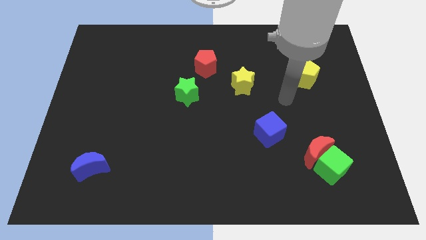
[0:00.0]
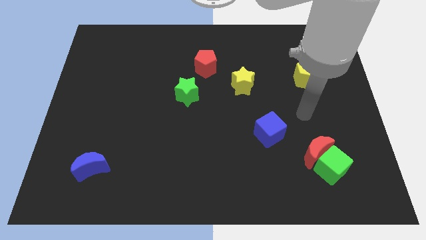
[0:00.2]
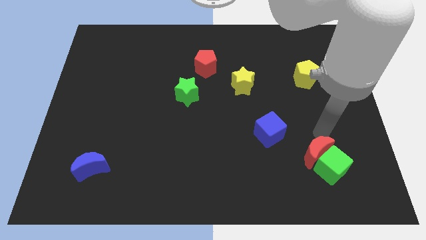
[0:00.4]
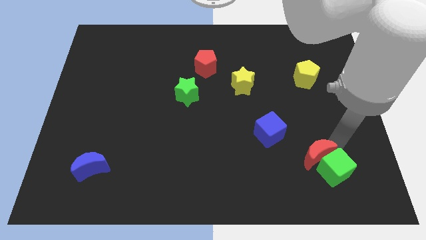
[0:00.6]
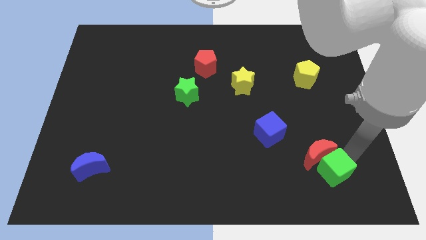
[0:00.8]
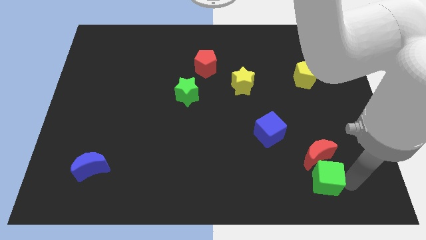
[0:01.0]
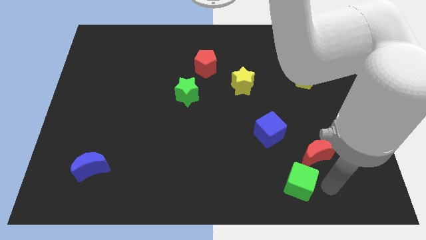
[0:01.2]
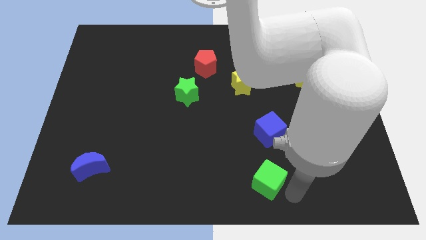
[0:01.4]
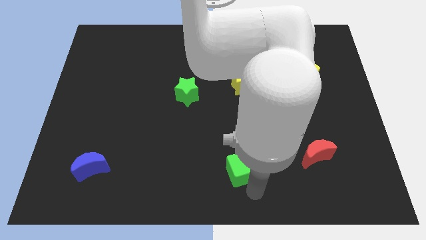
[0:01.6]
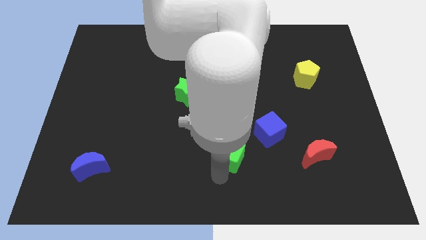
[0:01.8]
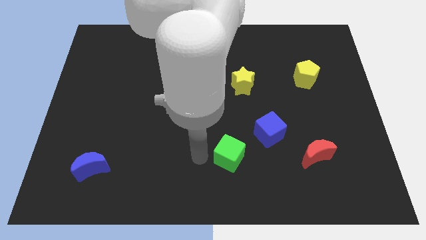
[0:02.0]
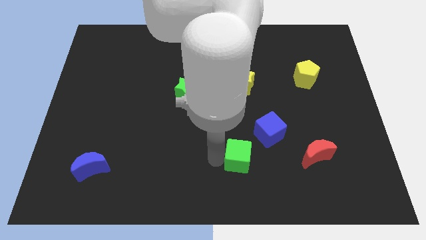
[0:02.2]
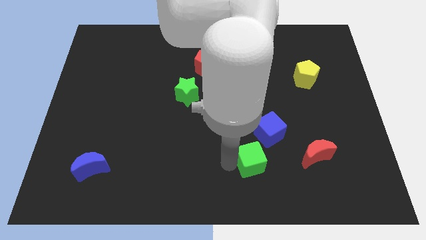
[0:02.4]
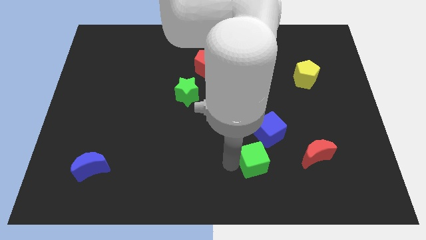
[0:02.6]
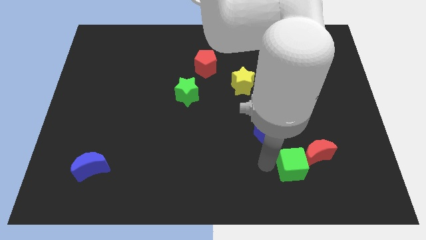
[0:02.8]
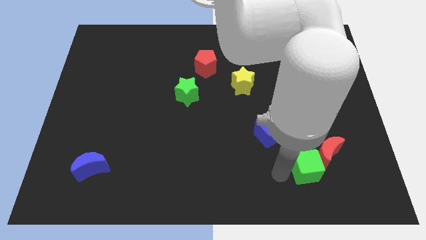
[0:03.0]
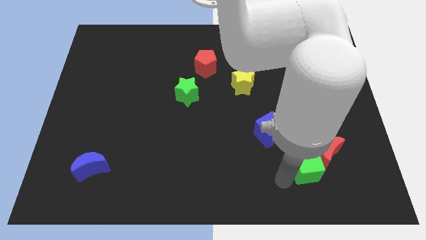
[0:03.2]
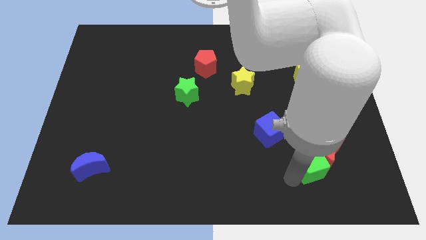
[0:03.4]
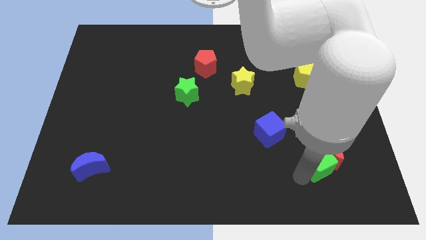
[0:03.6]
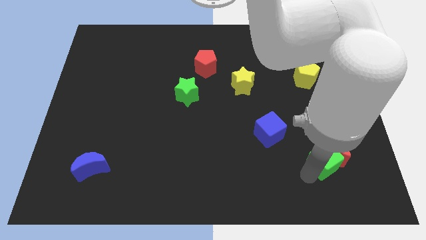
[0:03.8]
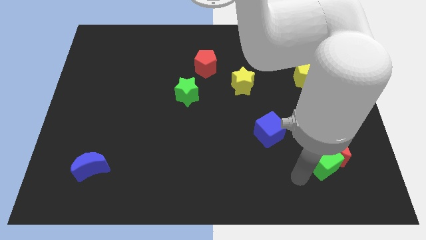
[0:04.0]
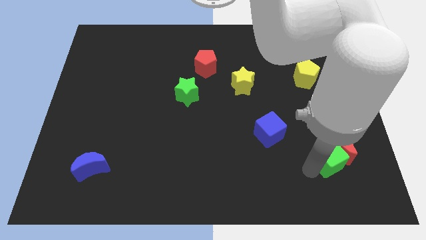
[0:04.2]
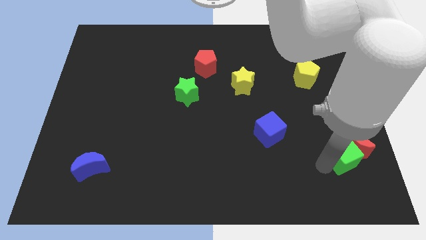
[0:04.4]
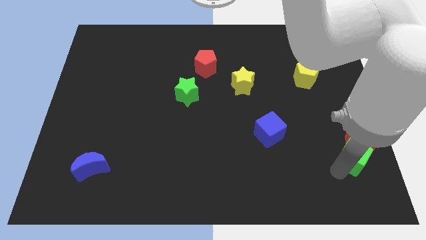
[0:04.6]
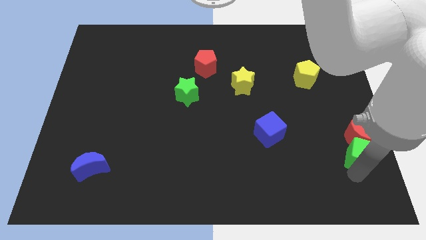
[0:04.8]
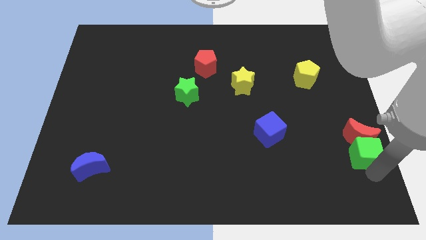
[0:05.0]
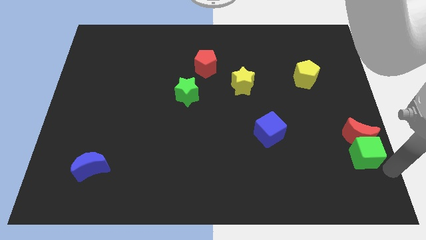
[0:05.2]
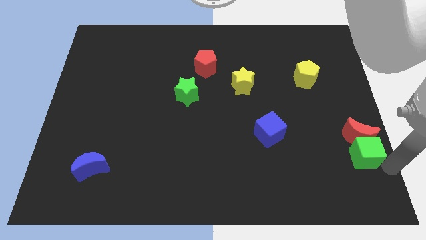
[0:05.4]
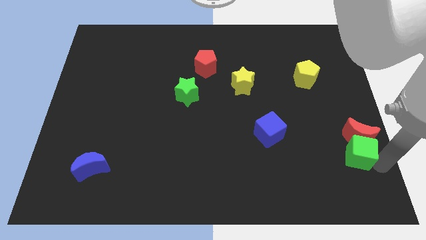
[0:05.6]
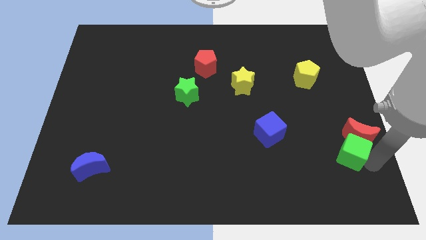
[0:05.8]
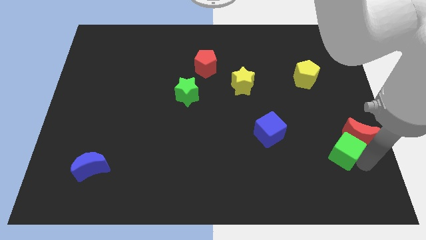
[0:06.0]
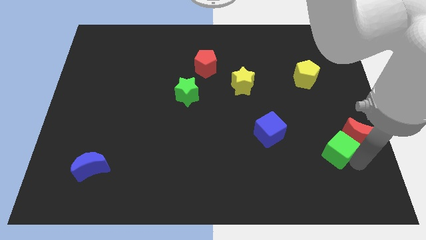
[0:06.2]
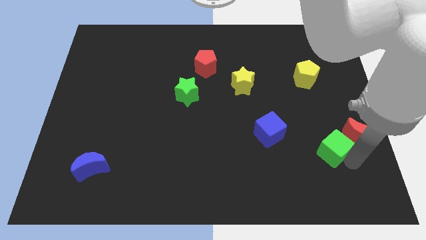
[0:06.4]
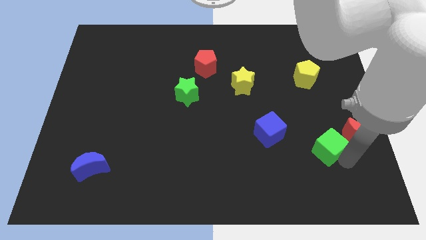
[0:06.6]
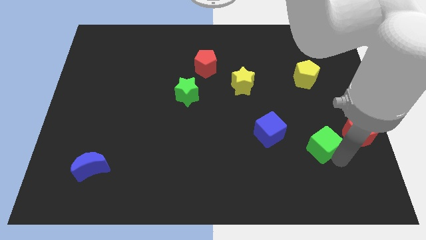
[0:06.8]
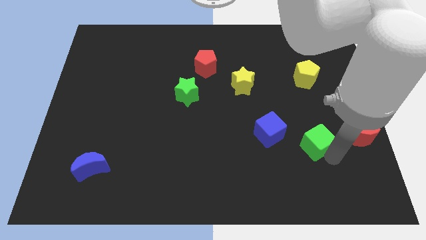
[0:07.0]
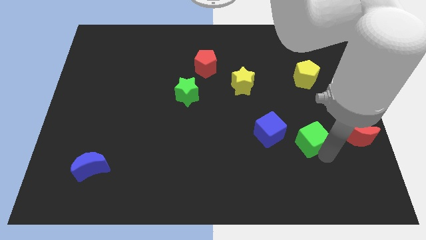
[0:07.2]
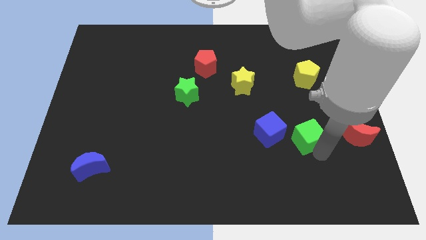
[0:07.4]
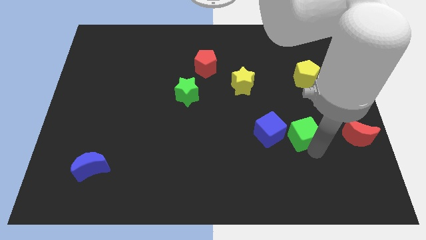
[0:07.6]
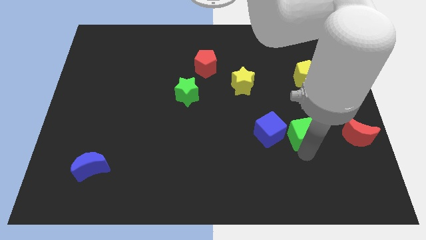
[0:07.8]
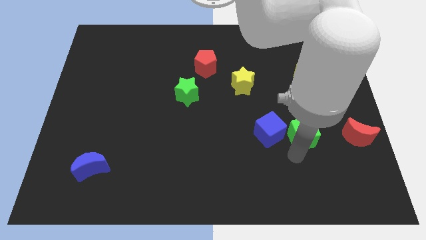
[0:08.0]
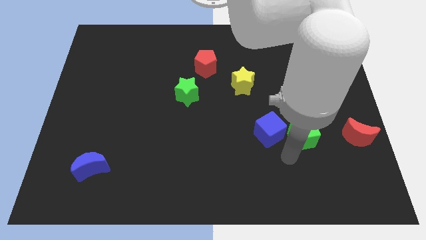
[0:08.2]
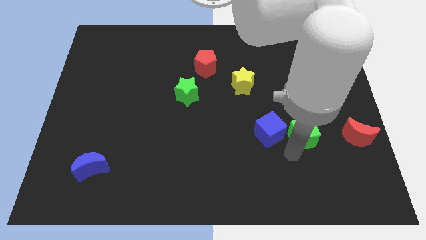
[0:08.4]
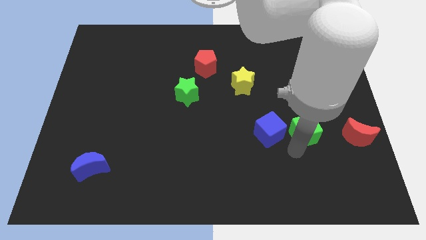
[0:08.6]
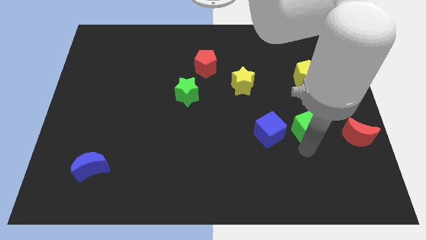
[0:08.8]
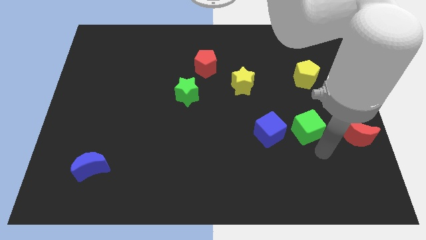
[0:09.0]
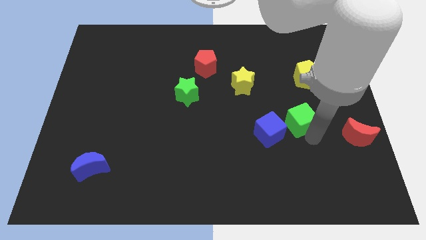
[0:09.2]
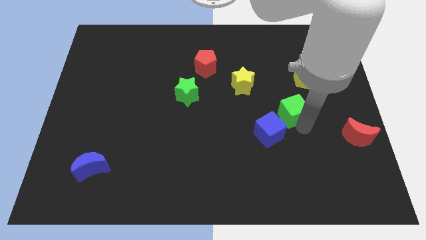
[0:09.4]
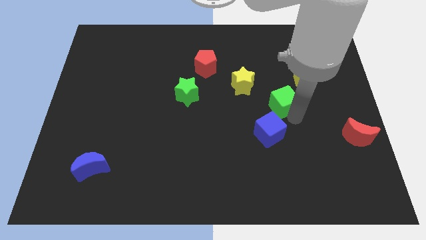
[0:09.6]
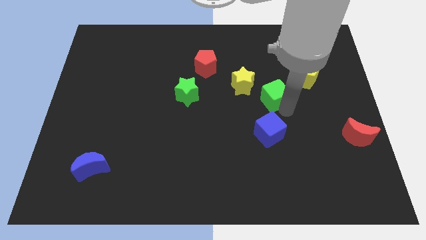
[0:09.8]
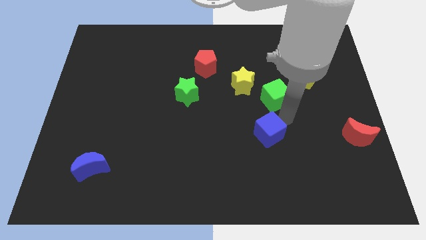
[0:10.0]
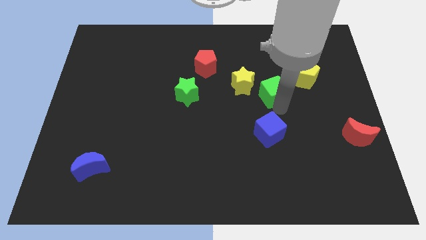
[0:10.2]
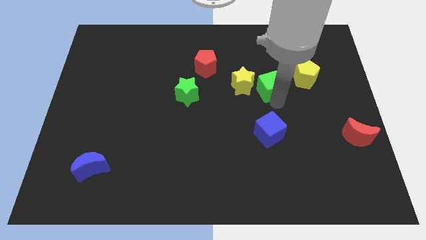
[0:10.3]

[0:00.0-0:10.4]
put the green cube left of the yellow pentagon

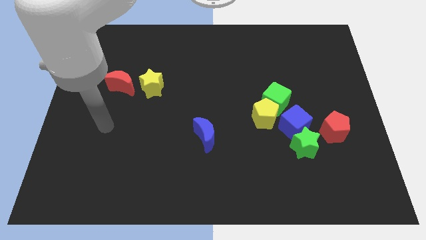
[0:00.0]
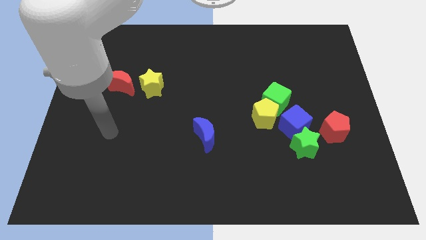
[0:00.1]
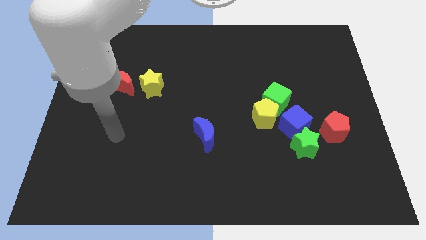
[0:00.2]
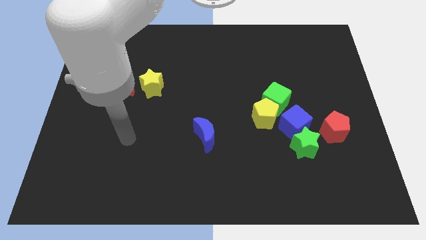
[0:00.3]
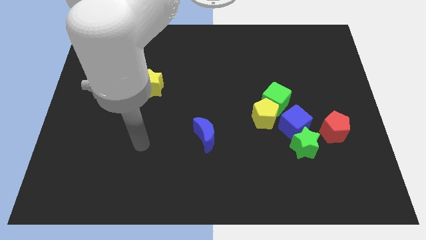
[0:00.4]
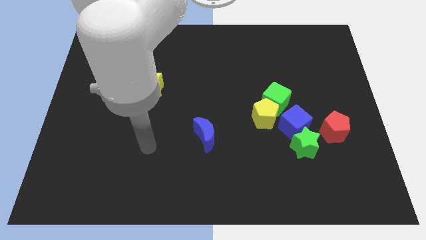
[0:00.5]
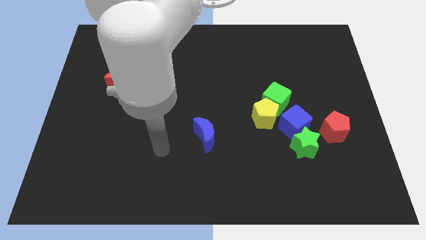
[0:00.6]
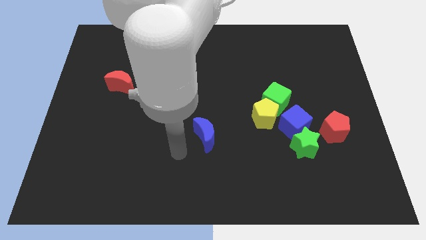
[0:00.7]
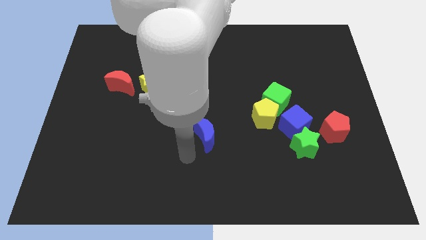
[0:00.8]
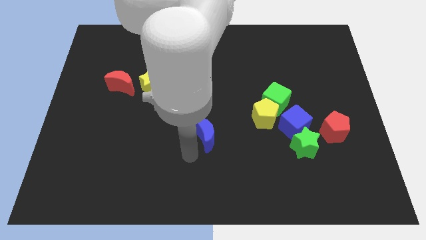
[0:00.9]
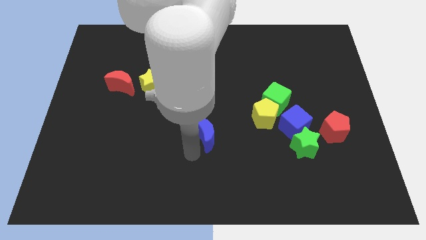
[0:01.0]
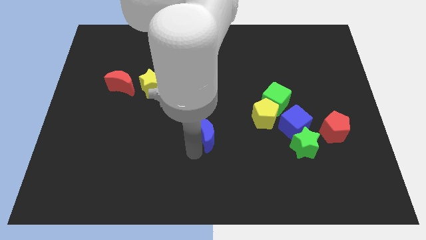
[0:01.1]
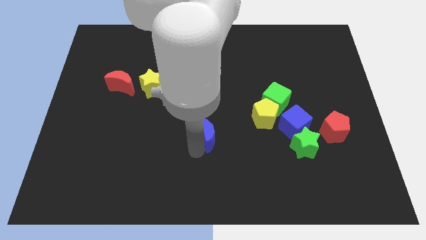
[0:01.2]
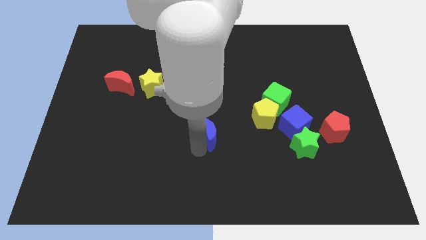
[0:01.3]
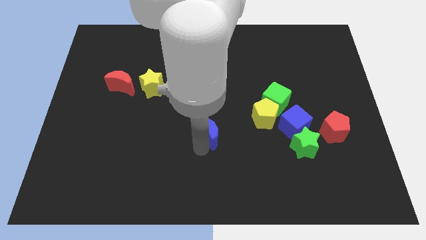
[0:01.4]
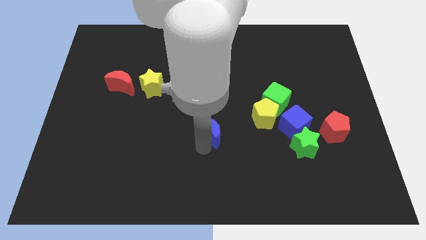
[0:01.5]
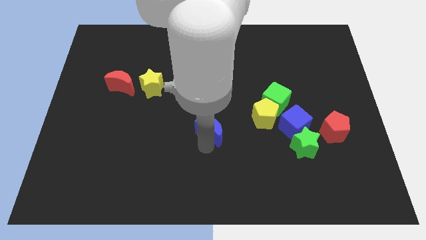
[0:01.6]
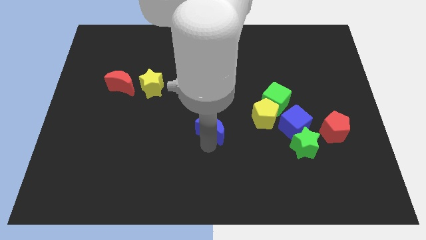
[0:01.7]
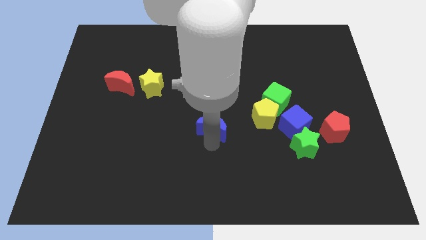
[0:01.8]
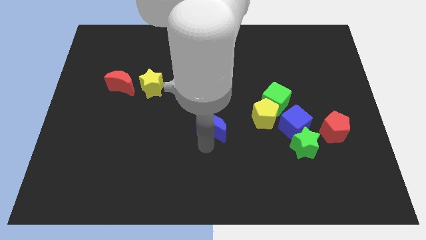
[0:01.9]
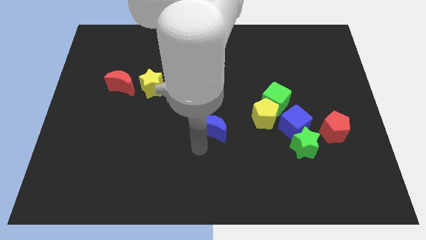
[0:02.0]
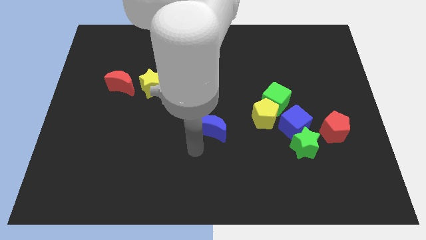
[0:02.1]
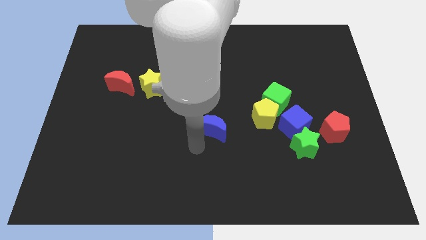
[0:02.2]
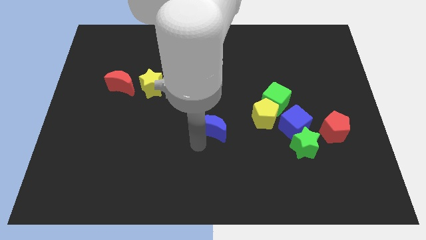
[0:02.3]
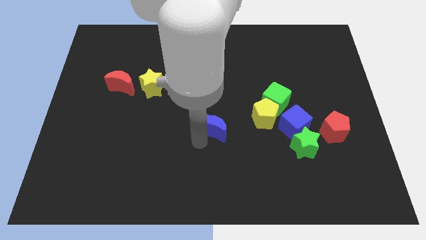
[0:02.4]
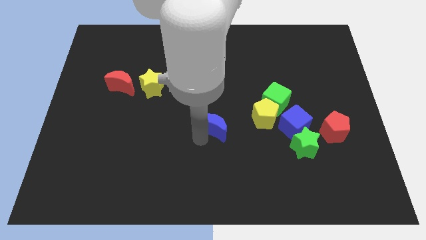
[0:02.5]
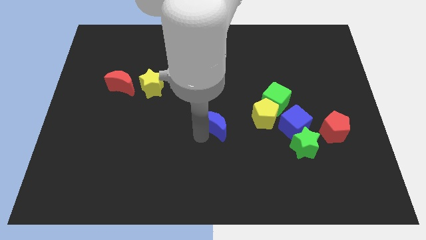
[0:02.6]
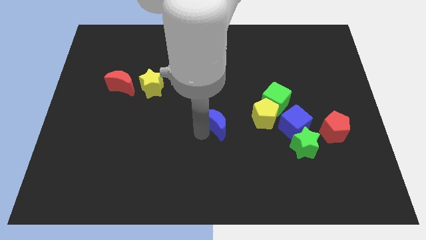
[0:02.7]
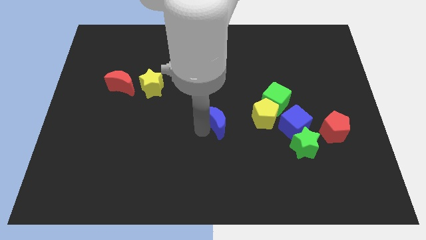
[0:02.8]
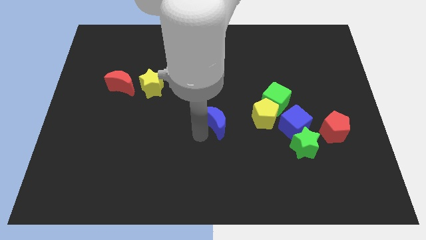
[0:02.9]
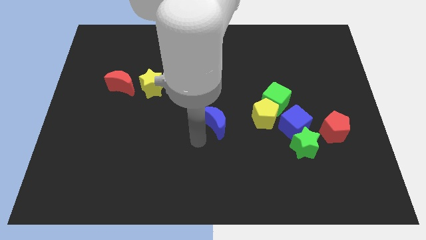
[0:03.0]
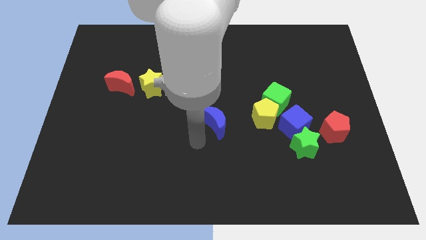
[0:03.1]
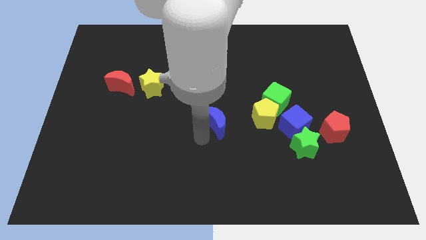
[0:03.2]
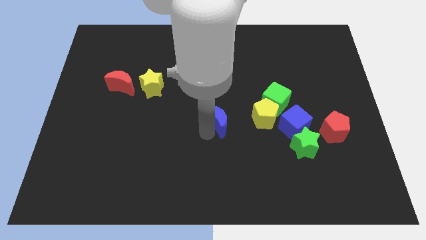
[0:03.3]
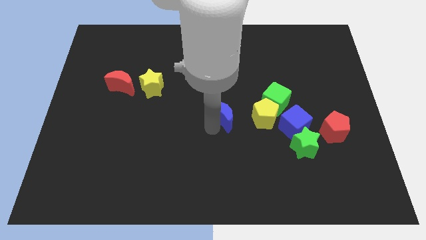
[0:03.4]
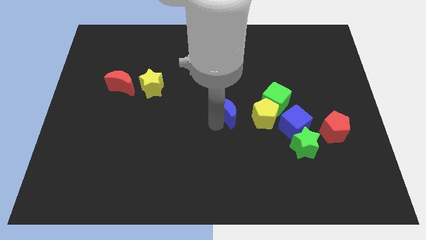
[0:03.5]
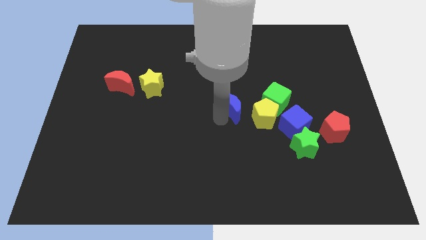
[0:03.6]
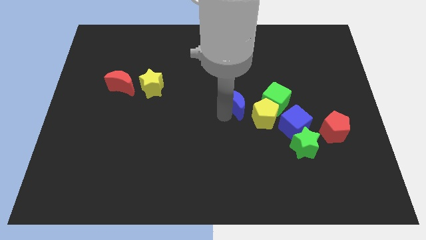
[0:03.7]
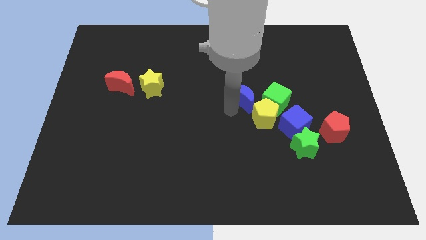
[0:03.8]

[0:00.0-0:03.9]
put the blue moon to the top left side of the green cube
